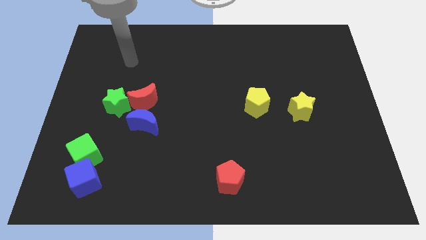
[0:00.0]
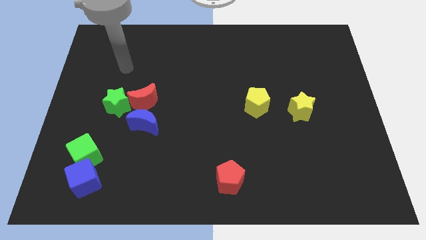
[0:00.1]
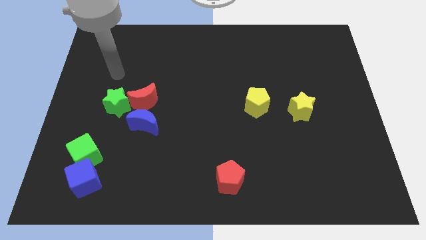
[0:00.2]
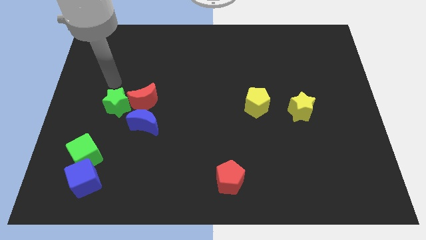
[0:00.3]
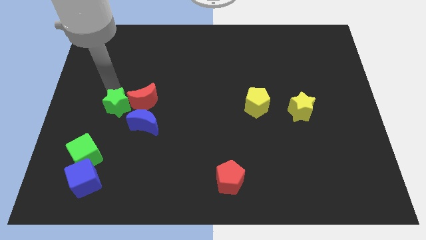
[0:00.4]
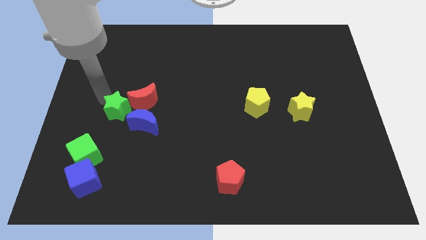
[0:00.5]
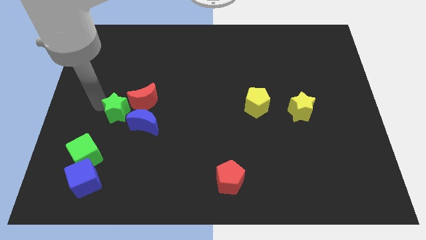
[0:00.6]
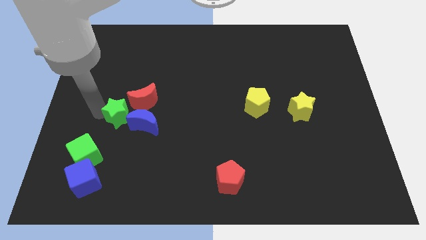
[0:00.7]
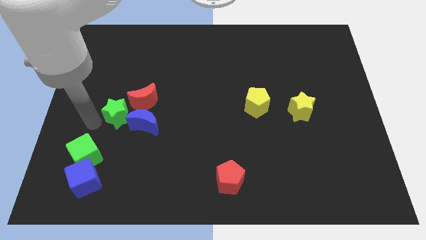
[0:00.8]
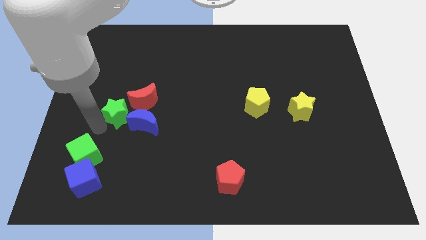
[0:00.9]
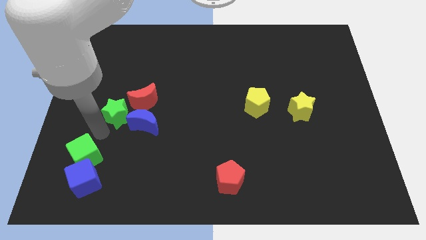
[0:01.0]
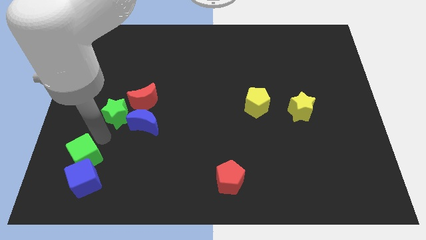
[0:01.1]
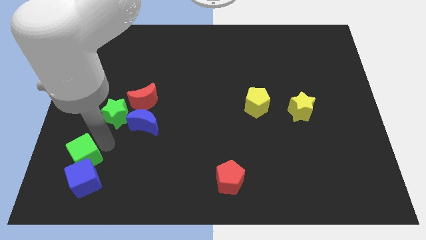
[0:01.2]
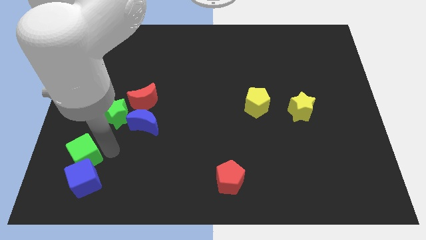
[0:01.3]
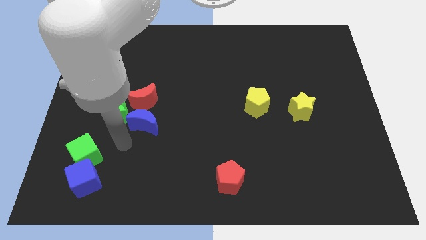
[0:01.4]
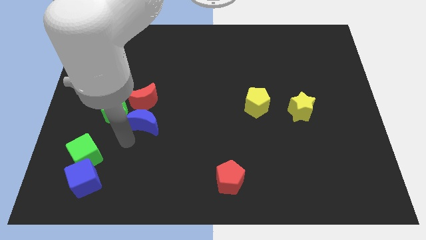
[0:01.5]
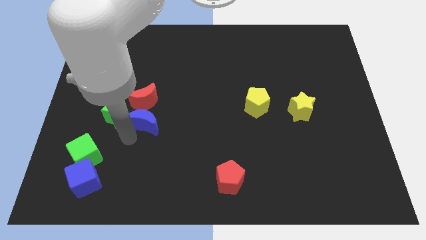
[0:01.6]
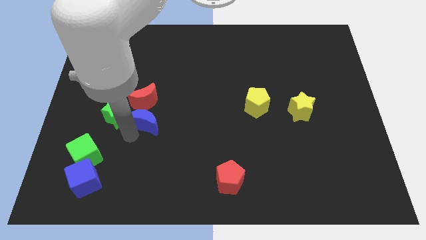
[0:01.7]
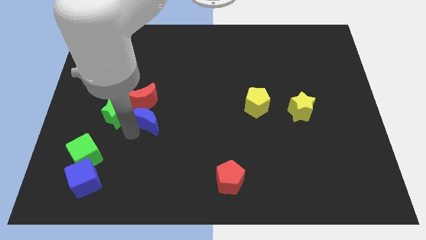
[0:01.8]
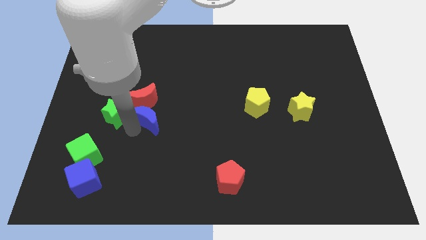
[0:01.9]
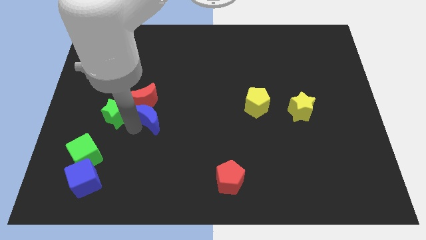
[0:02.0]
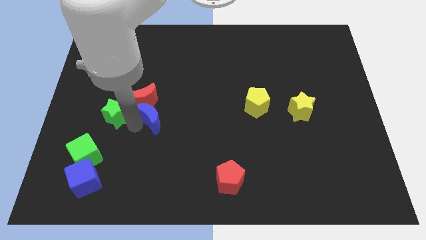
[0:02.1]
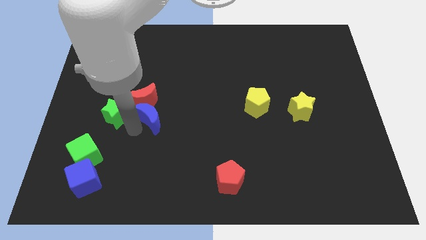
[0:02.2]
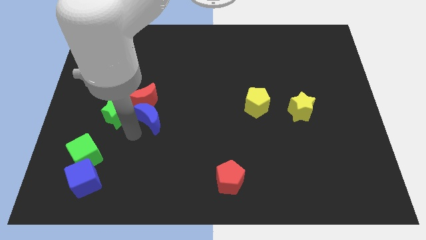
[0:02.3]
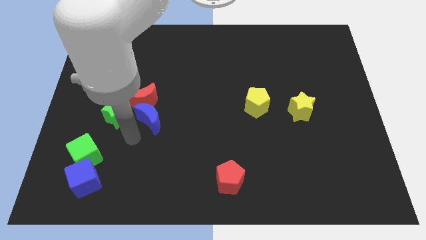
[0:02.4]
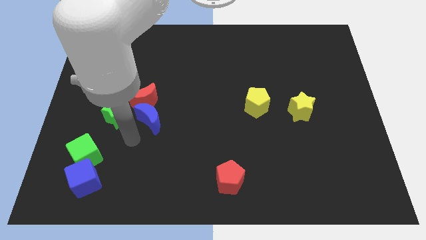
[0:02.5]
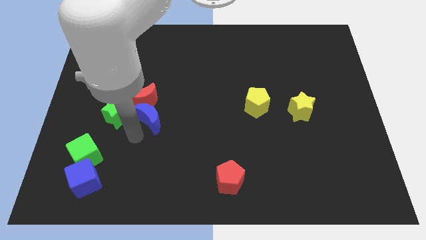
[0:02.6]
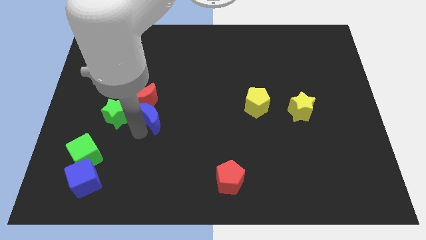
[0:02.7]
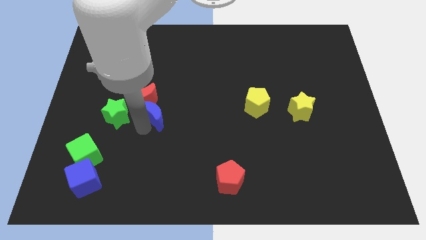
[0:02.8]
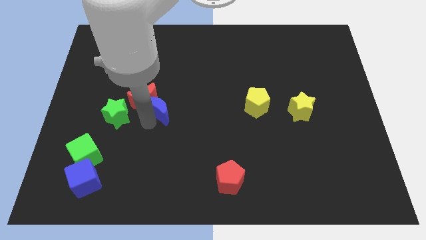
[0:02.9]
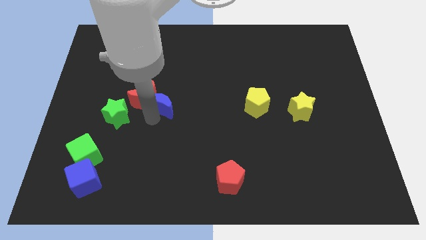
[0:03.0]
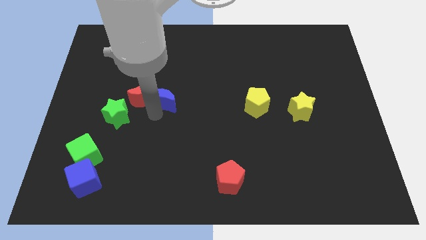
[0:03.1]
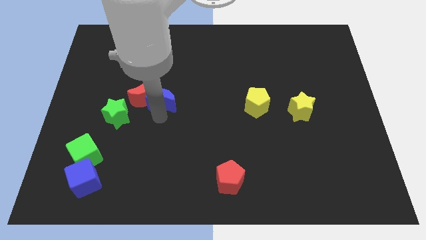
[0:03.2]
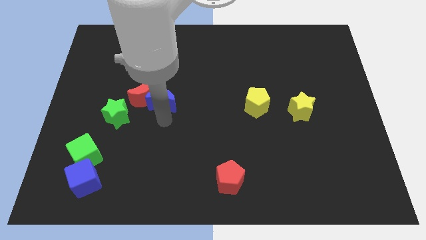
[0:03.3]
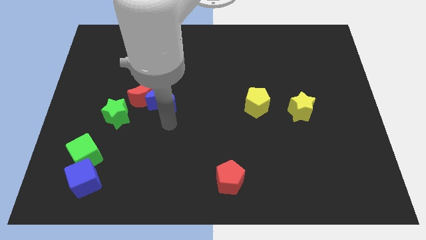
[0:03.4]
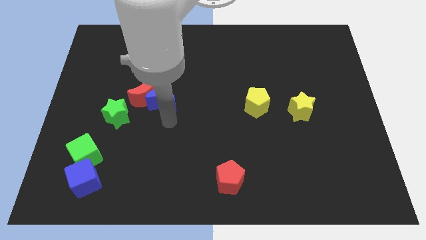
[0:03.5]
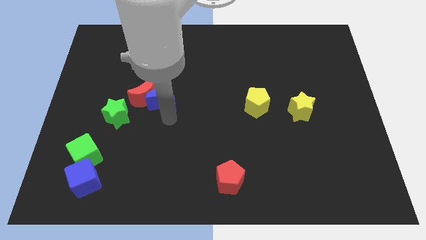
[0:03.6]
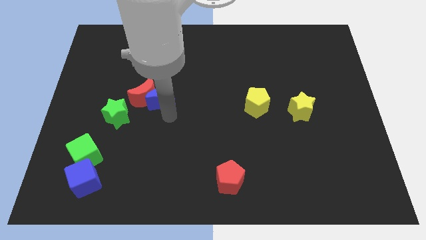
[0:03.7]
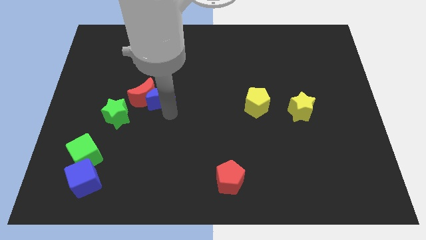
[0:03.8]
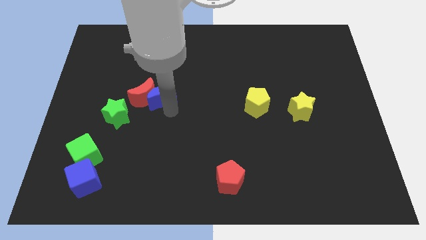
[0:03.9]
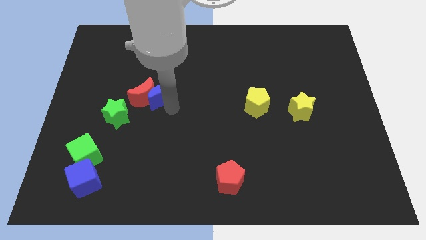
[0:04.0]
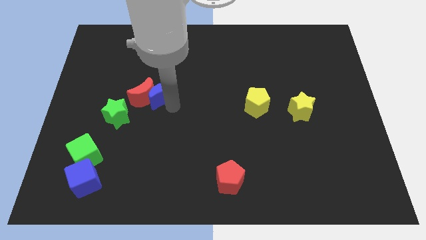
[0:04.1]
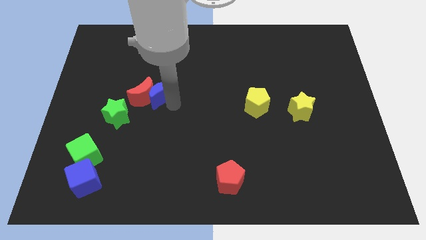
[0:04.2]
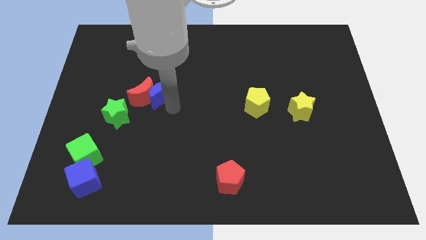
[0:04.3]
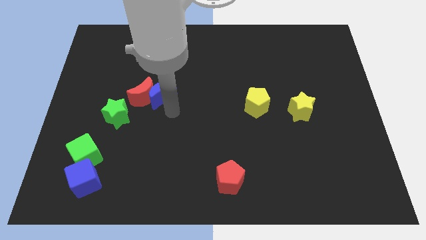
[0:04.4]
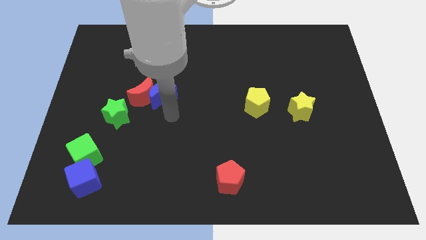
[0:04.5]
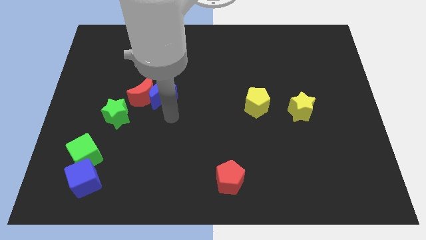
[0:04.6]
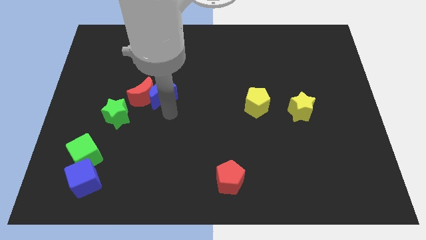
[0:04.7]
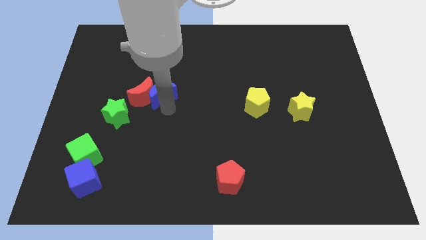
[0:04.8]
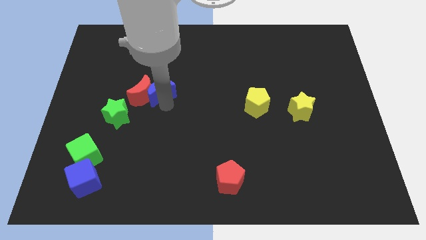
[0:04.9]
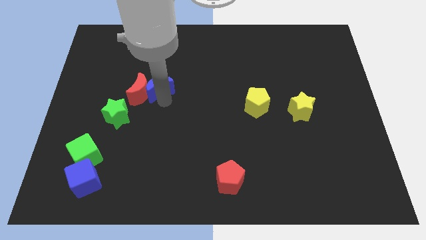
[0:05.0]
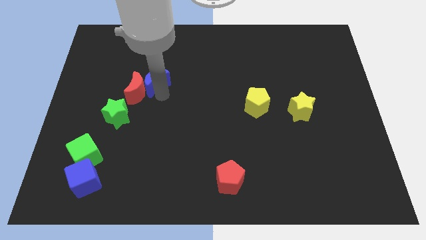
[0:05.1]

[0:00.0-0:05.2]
slide the blue moon above the red moon

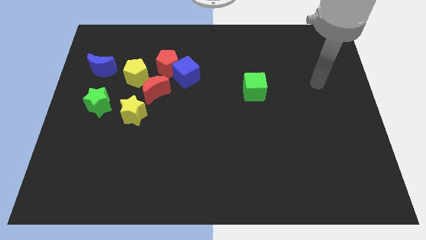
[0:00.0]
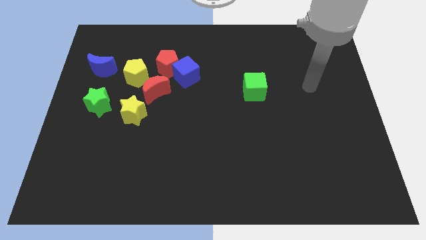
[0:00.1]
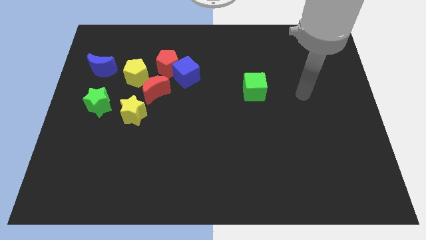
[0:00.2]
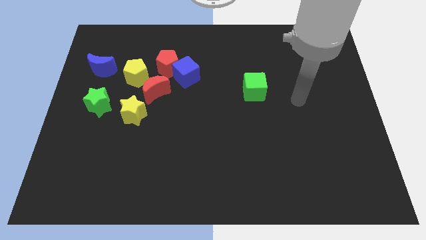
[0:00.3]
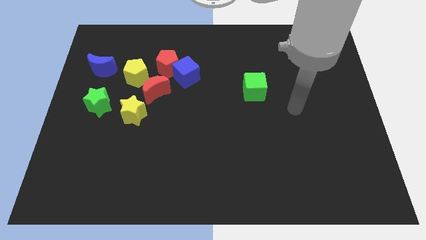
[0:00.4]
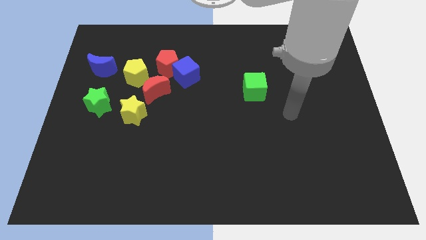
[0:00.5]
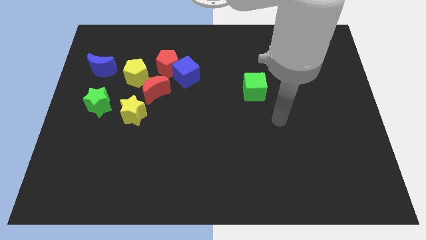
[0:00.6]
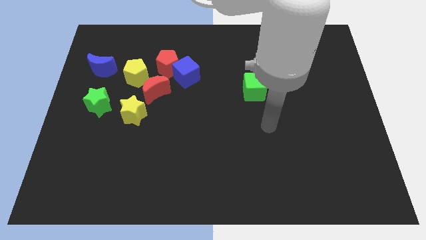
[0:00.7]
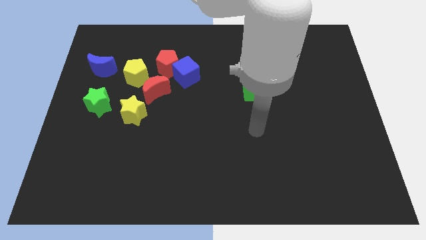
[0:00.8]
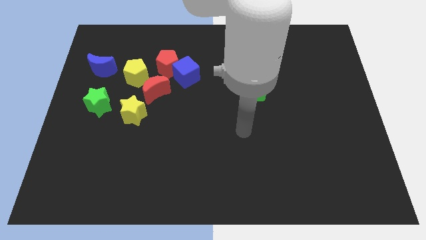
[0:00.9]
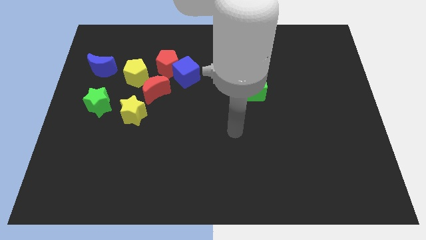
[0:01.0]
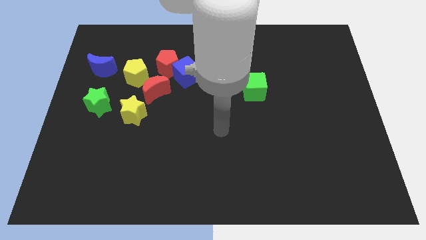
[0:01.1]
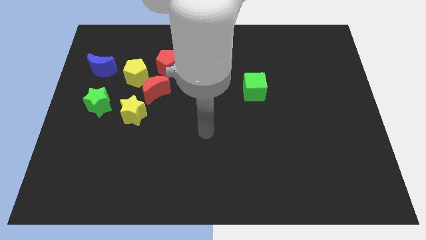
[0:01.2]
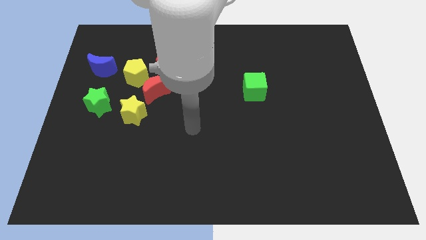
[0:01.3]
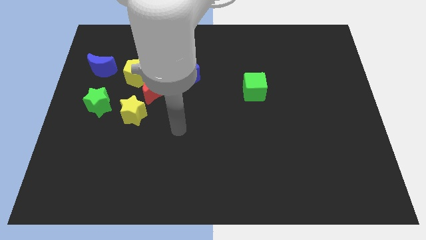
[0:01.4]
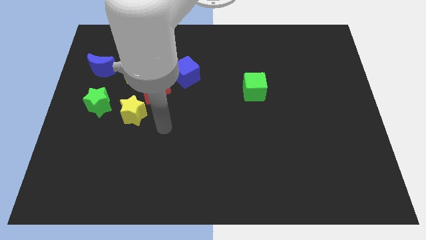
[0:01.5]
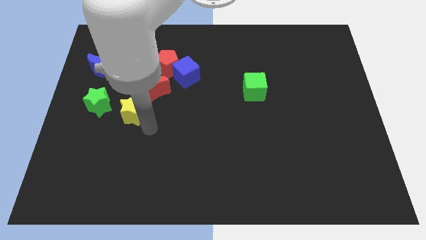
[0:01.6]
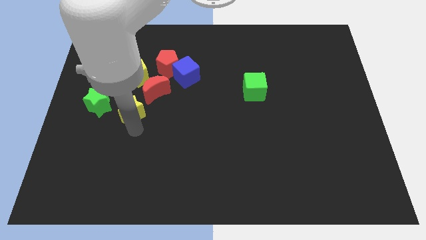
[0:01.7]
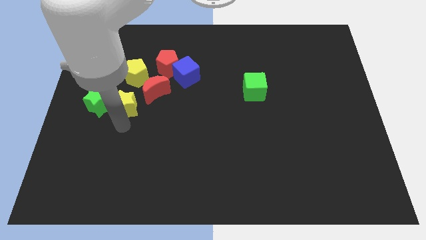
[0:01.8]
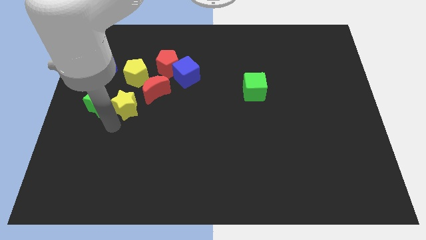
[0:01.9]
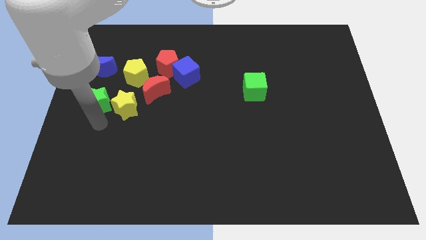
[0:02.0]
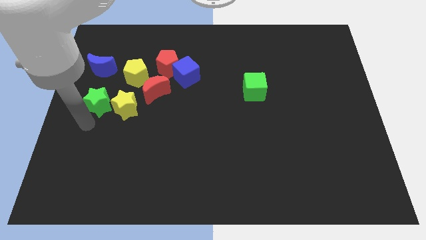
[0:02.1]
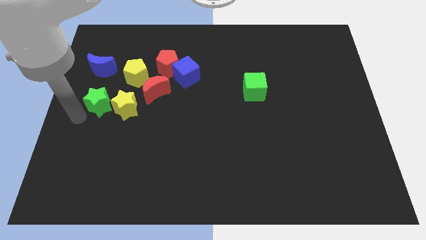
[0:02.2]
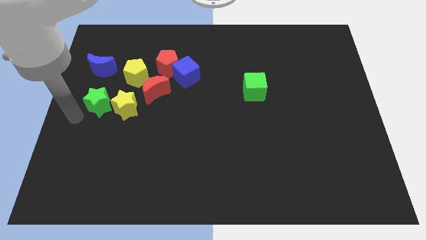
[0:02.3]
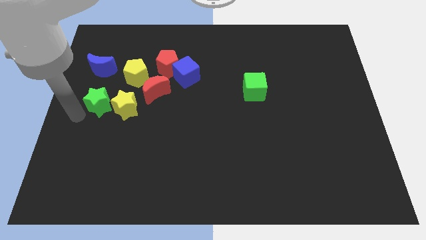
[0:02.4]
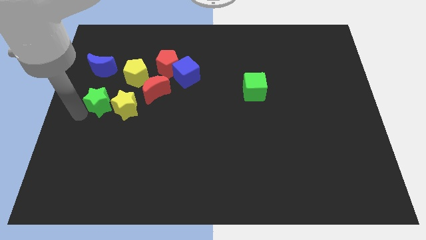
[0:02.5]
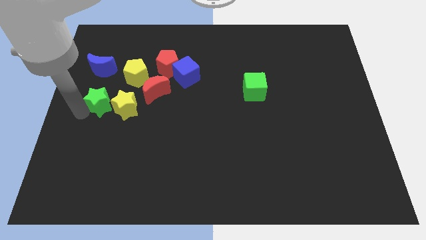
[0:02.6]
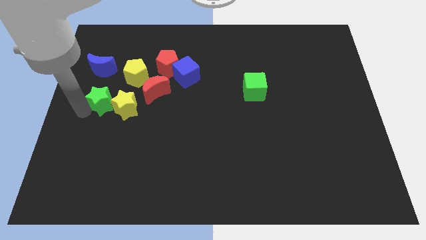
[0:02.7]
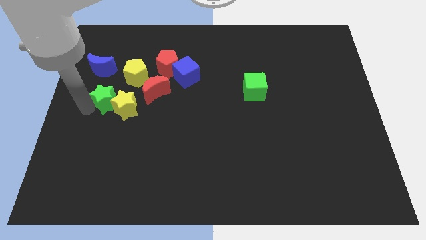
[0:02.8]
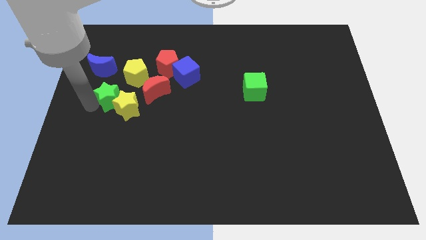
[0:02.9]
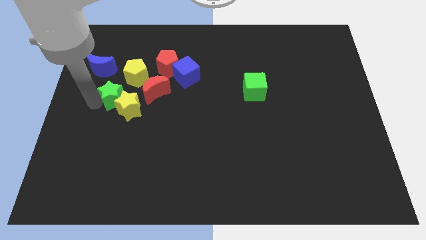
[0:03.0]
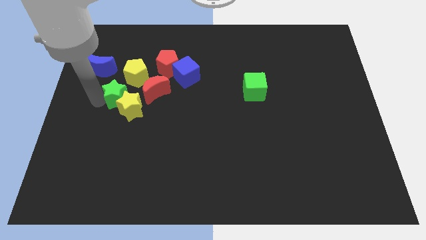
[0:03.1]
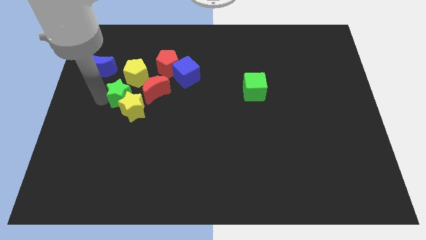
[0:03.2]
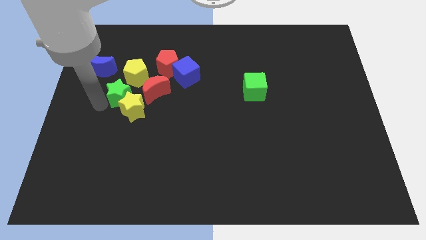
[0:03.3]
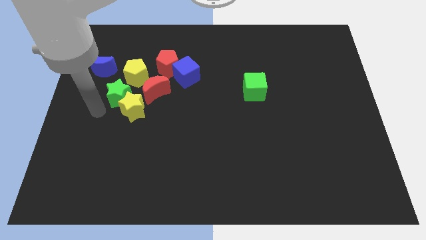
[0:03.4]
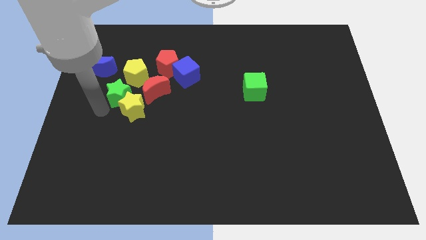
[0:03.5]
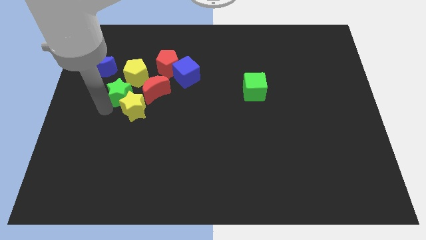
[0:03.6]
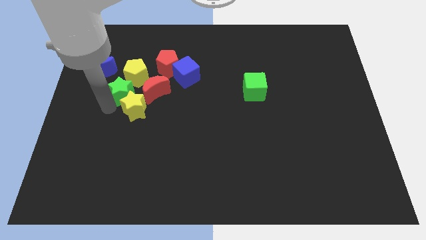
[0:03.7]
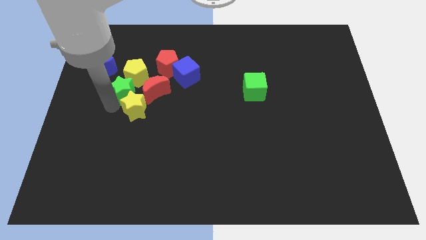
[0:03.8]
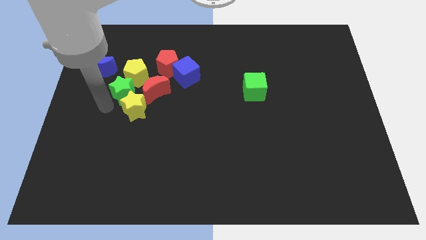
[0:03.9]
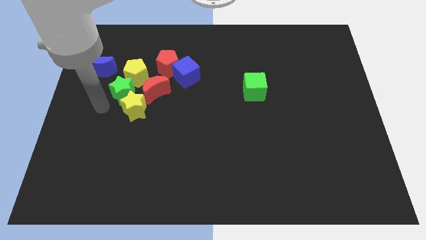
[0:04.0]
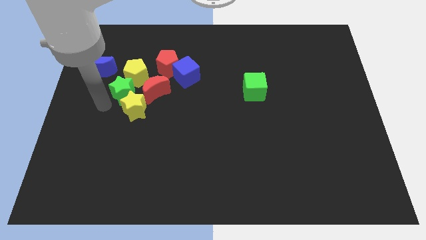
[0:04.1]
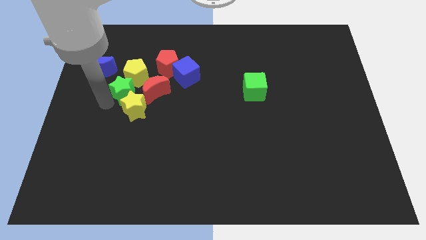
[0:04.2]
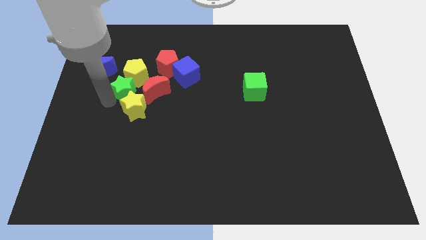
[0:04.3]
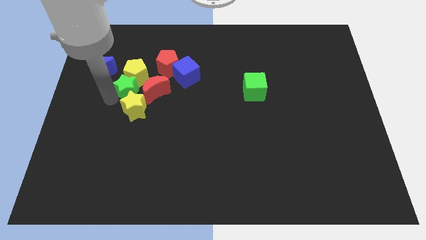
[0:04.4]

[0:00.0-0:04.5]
put the green star to the bottom left side of the red pentagon
